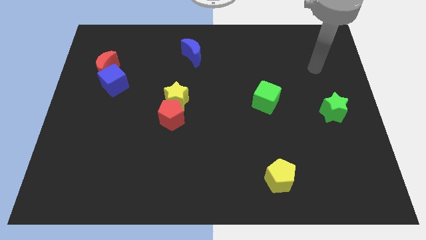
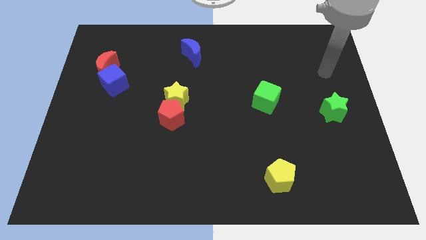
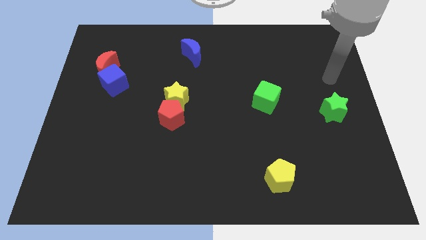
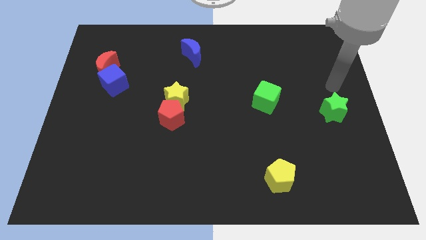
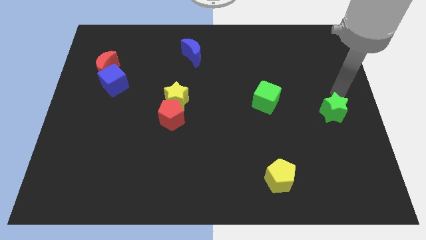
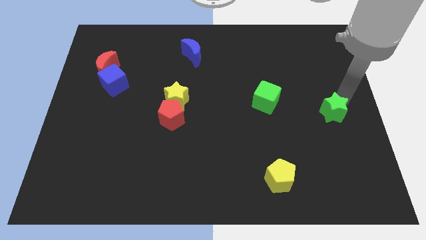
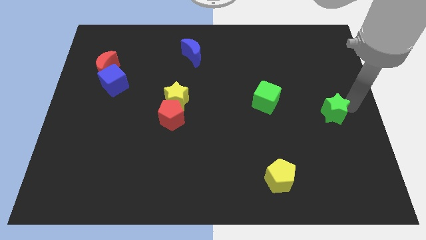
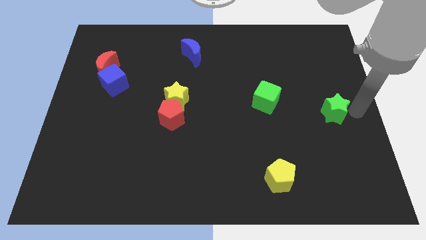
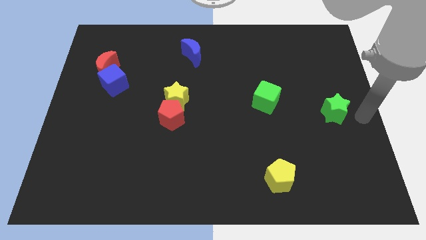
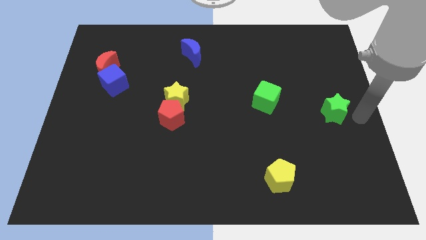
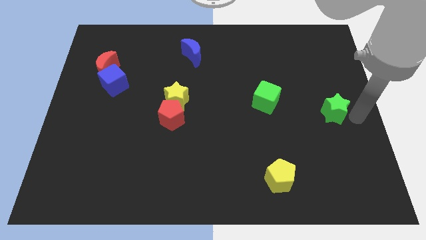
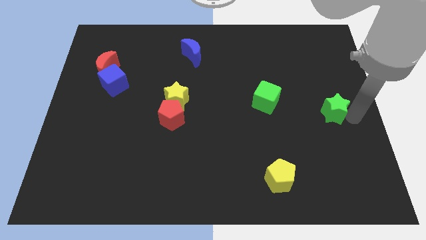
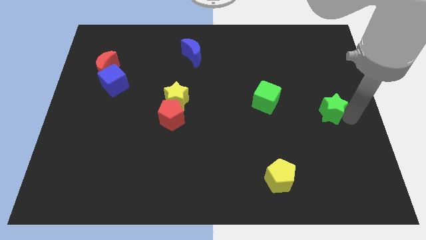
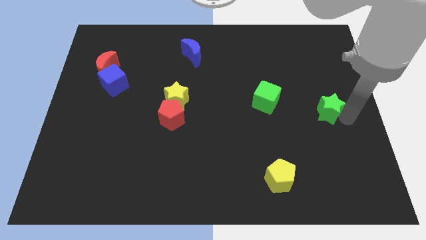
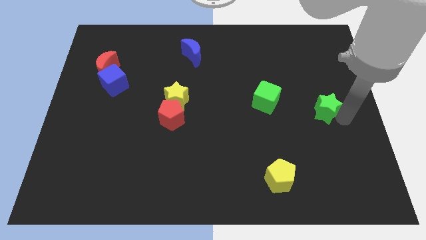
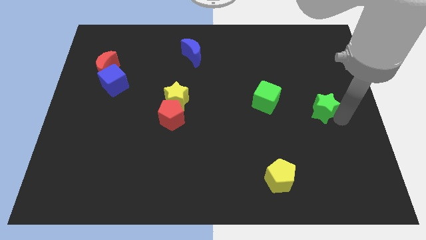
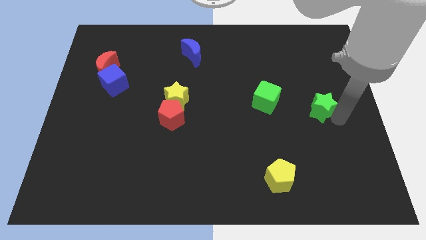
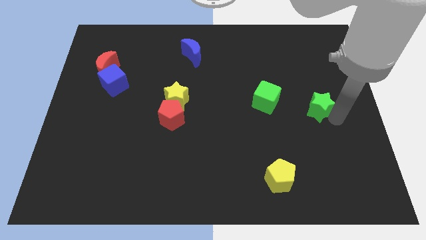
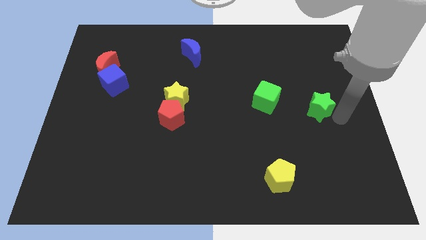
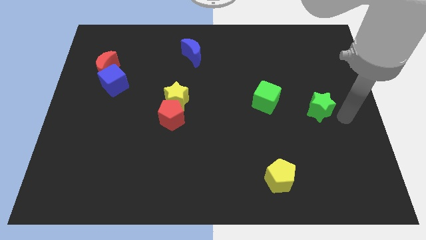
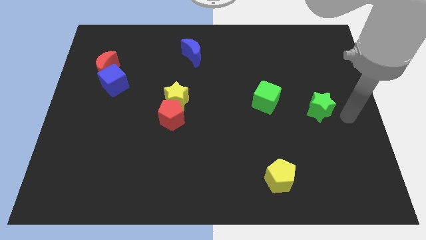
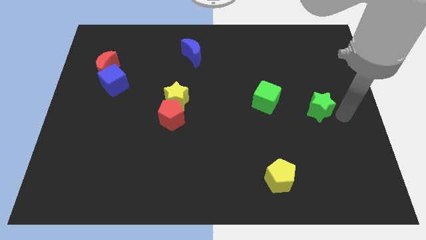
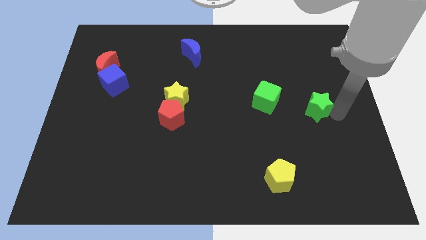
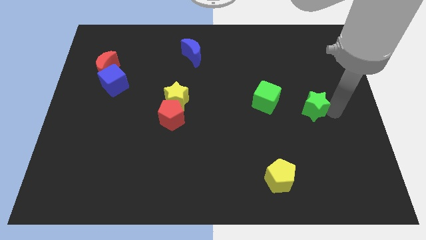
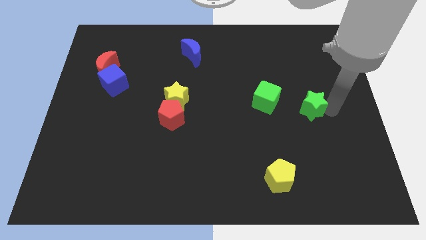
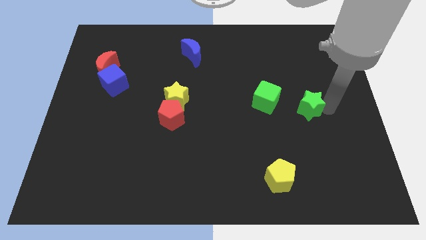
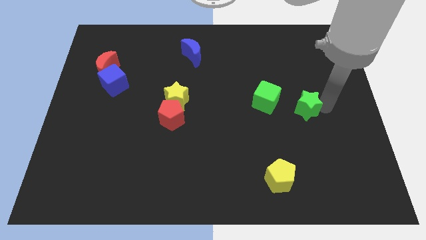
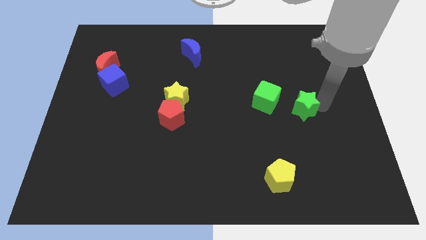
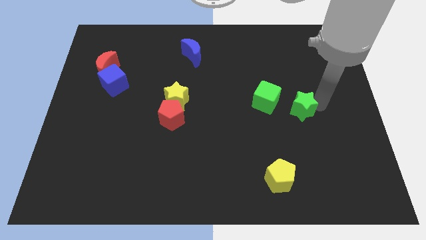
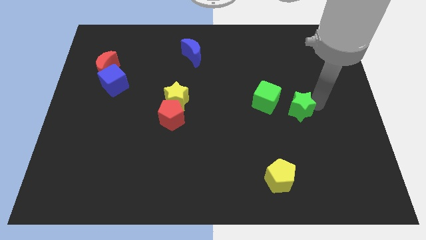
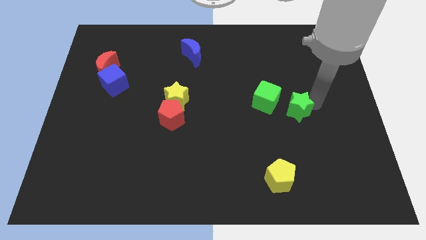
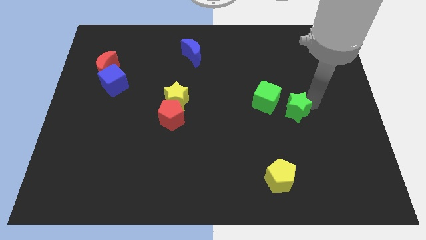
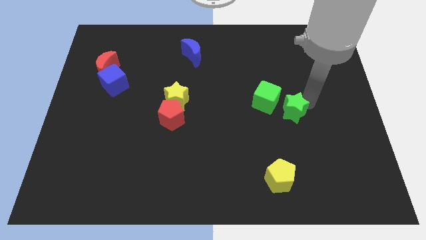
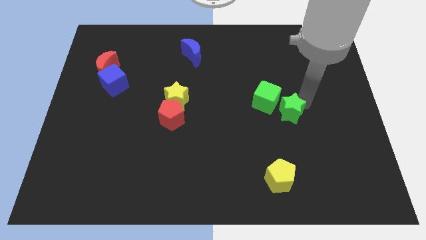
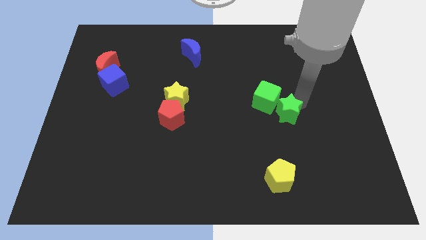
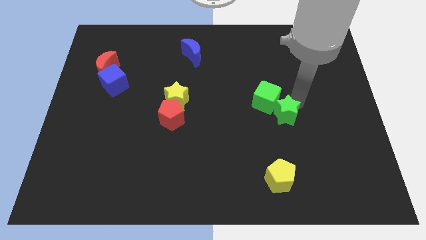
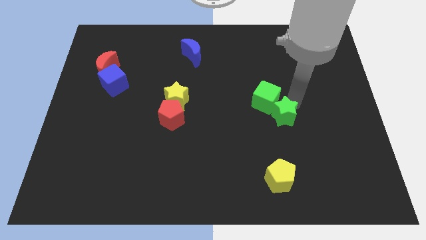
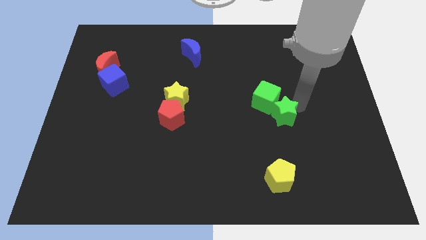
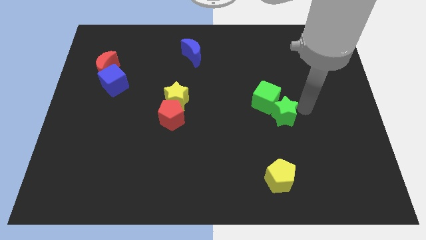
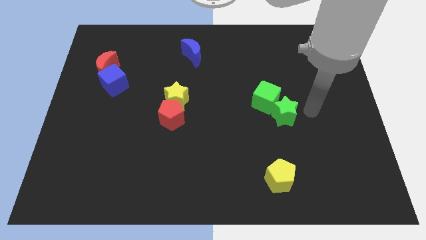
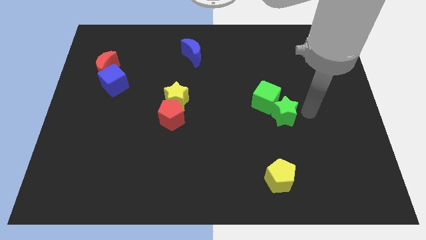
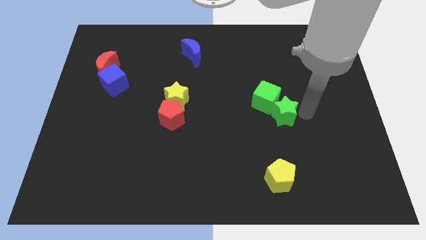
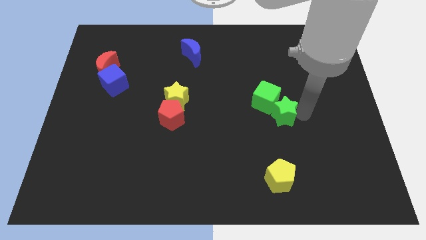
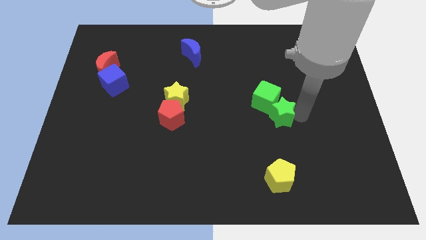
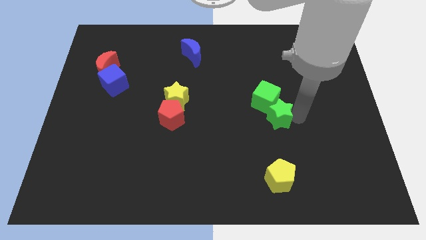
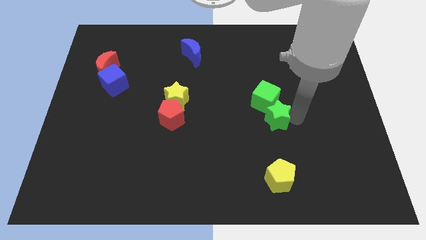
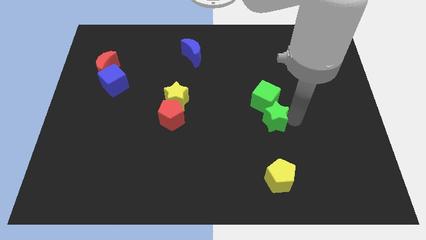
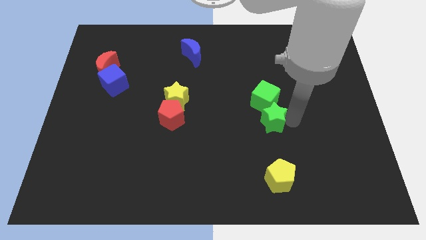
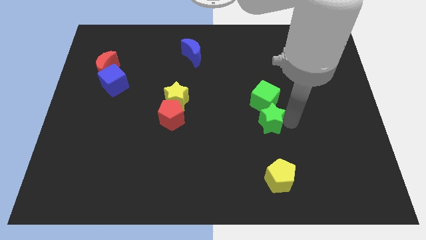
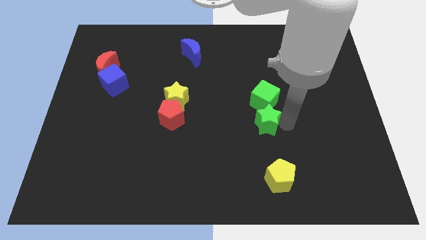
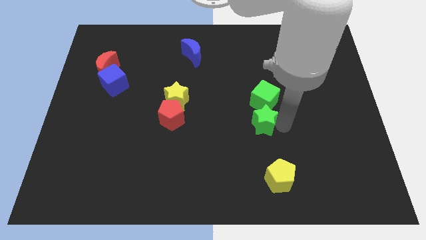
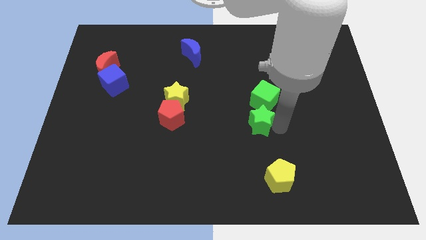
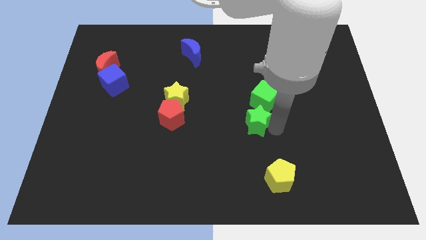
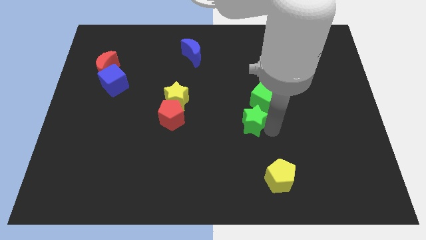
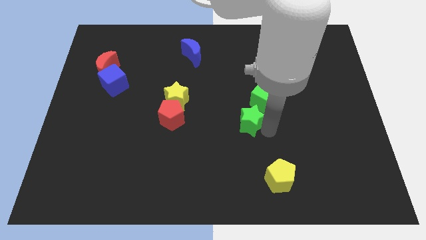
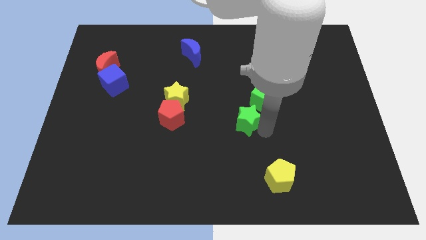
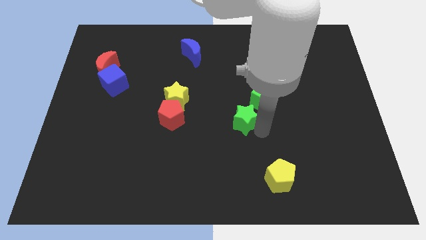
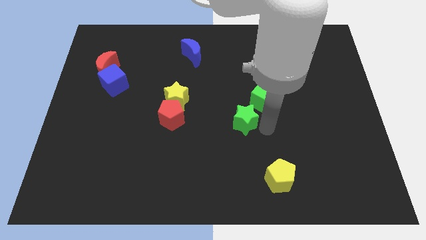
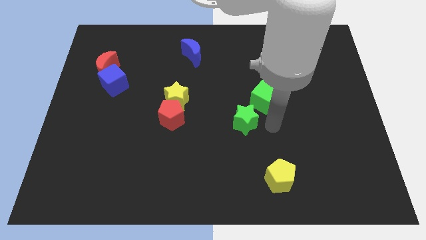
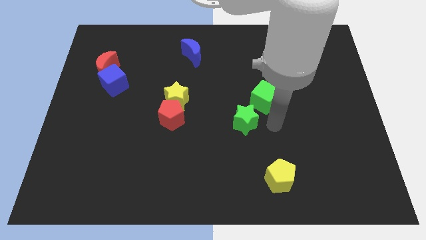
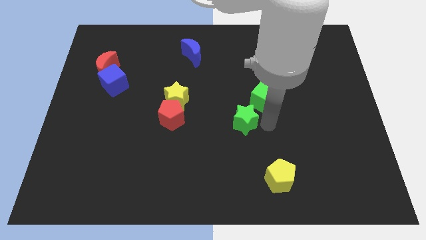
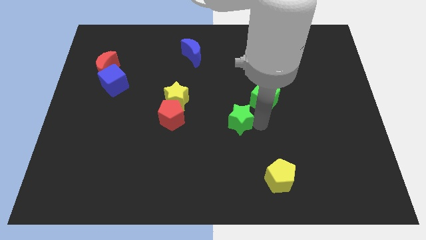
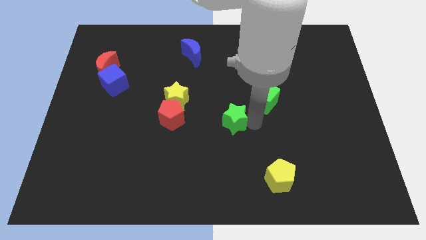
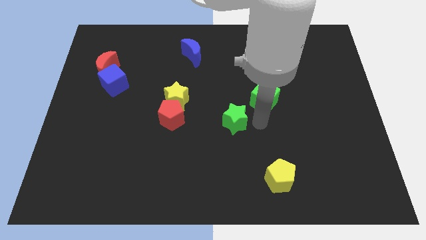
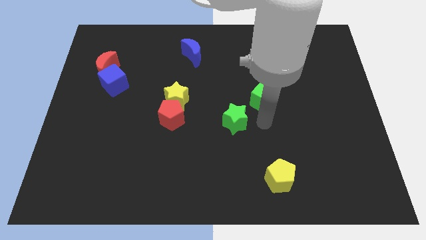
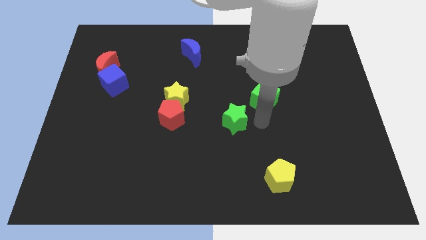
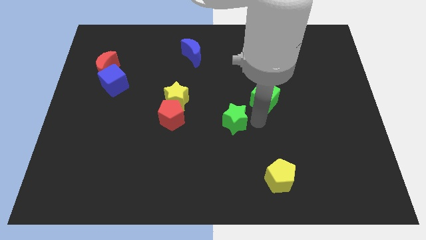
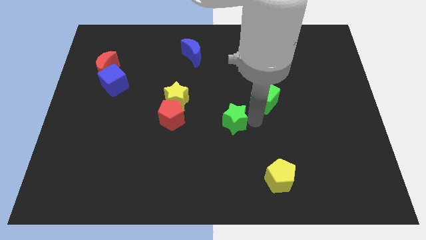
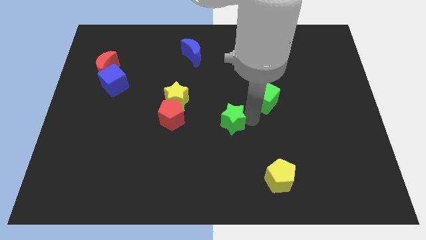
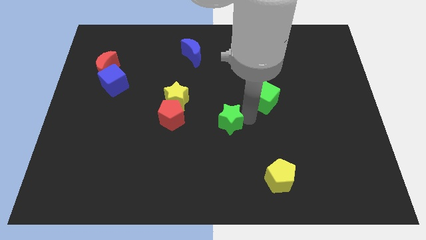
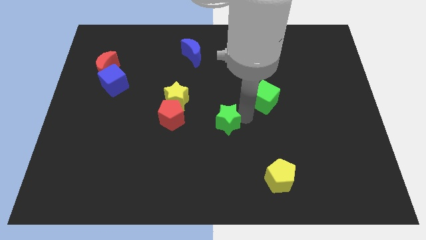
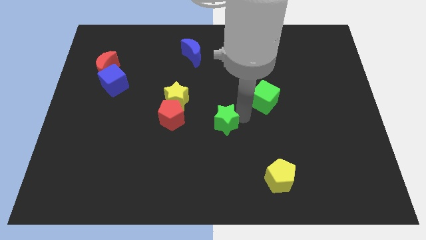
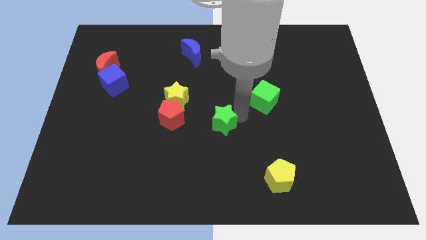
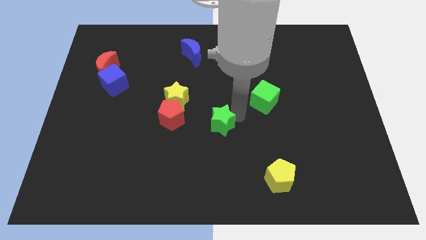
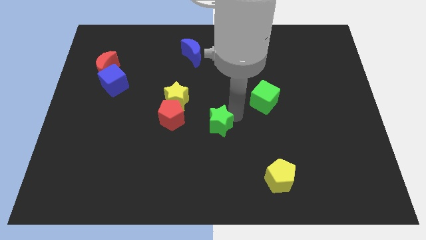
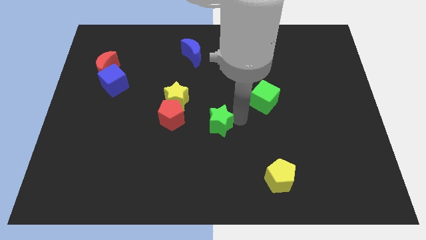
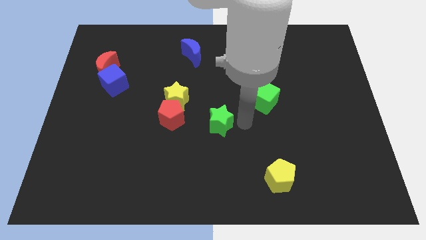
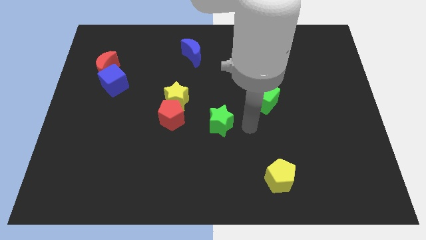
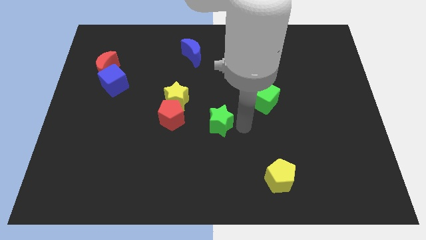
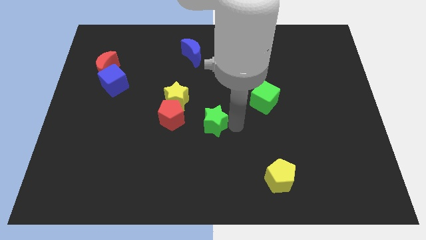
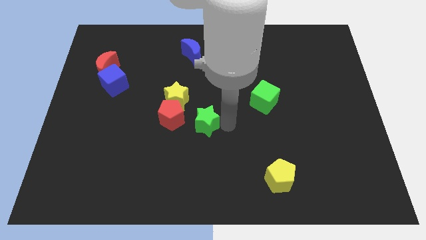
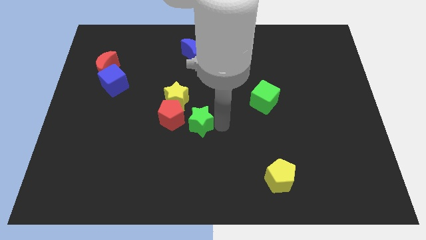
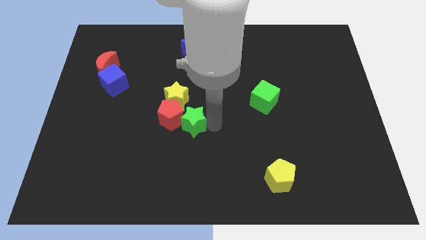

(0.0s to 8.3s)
move the green star close to the red pentagon
